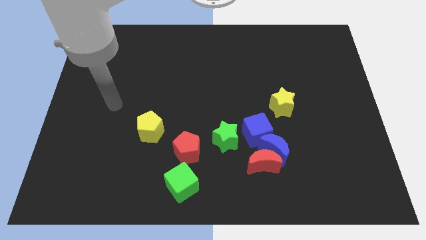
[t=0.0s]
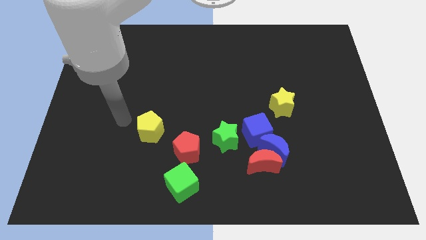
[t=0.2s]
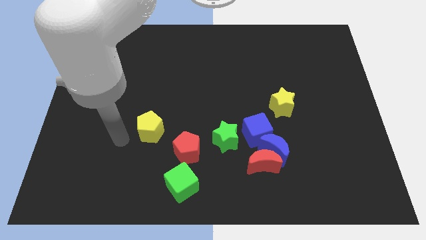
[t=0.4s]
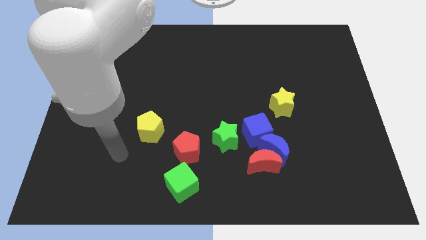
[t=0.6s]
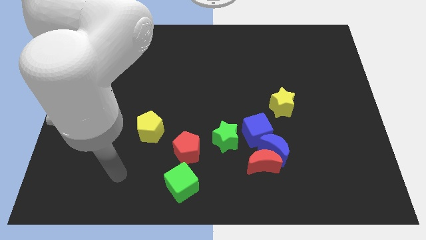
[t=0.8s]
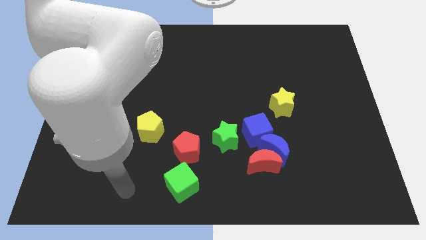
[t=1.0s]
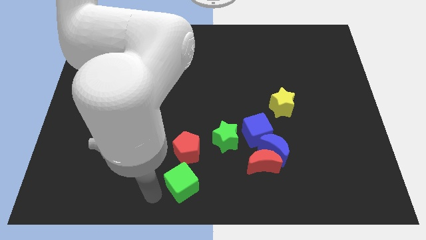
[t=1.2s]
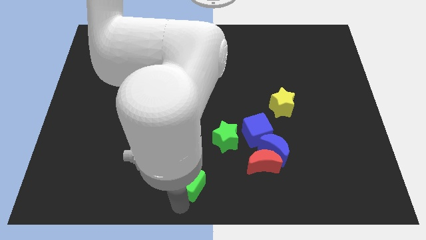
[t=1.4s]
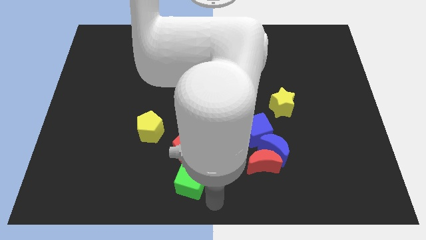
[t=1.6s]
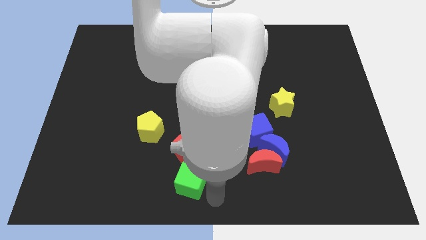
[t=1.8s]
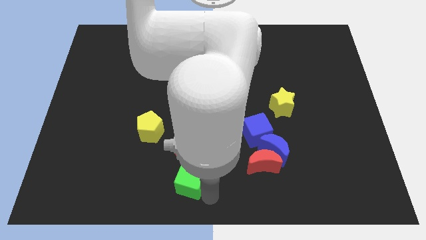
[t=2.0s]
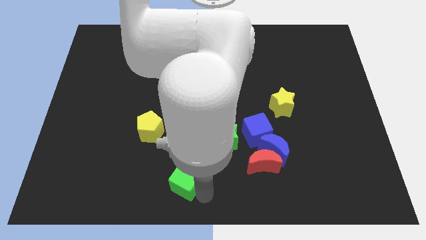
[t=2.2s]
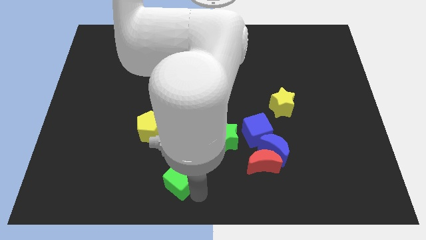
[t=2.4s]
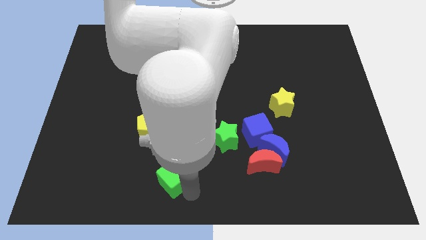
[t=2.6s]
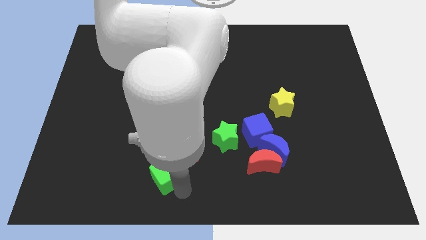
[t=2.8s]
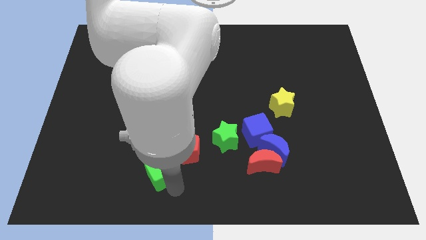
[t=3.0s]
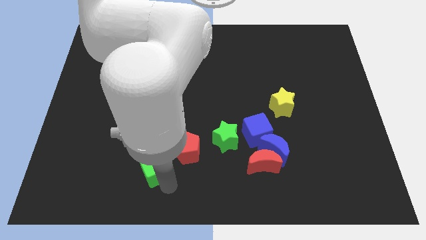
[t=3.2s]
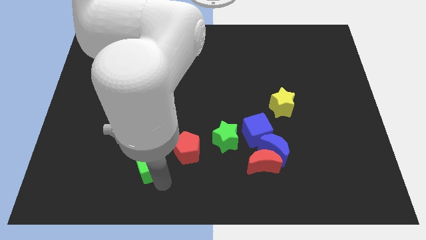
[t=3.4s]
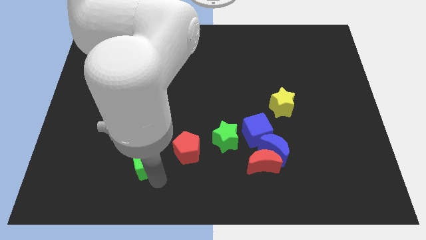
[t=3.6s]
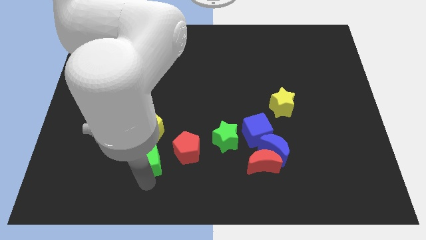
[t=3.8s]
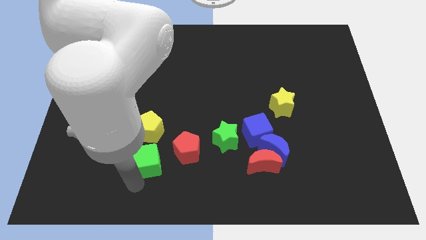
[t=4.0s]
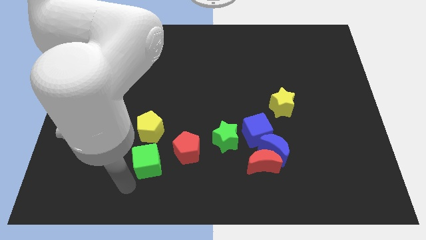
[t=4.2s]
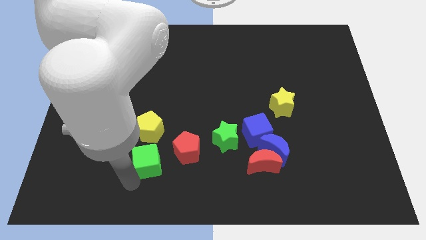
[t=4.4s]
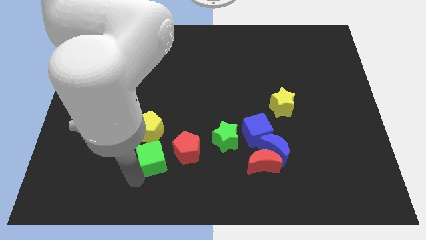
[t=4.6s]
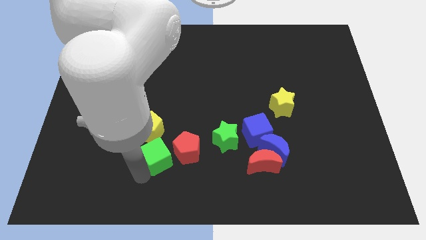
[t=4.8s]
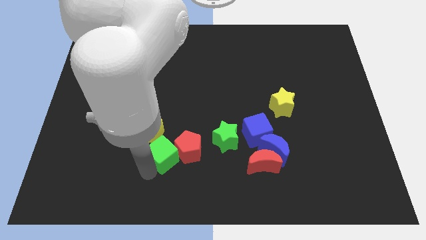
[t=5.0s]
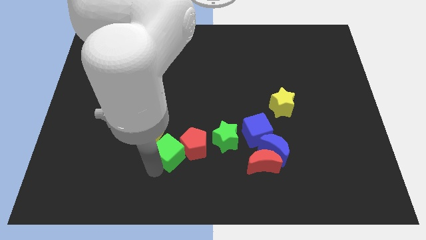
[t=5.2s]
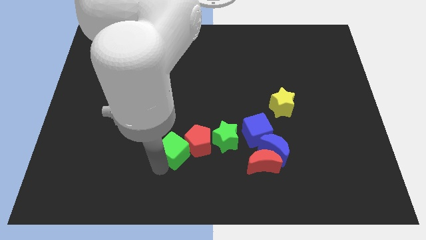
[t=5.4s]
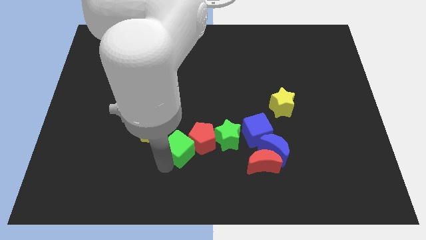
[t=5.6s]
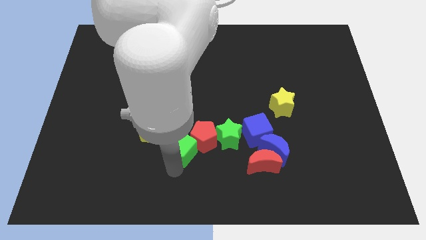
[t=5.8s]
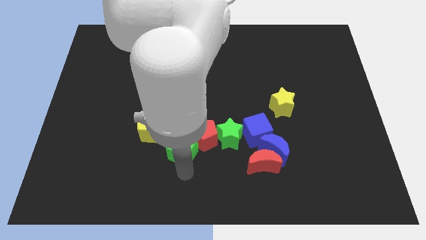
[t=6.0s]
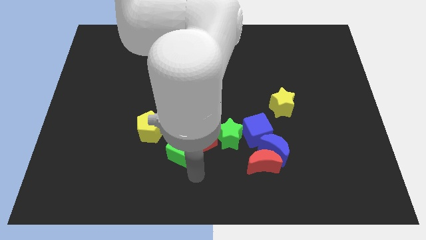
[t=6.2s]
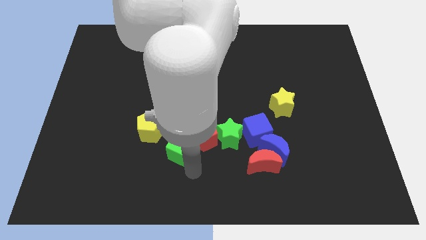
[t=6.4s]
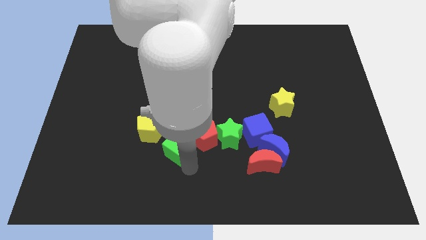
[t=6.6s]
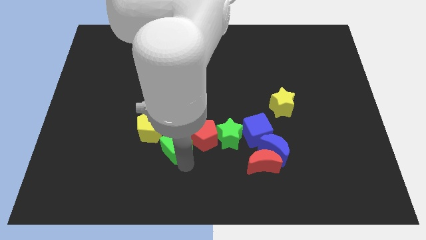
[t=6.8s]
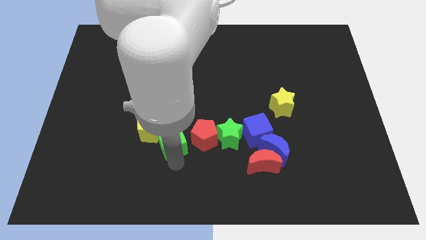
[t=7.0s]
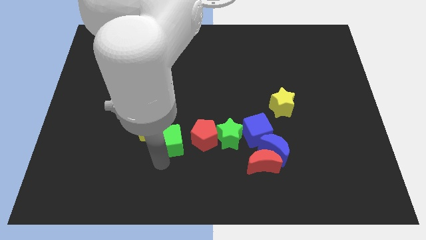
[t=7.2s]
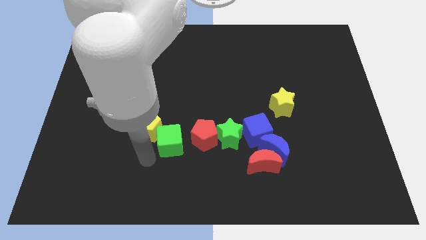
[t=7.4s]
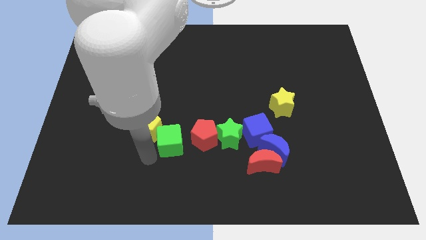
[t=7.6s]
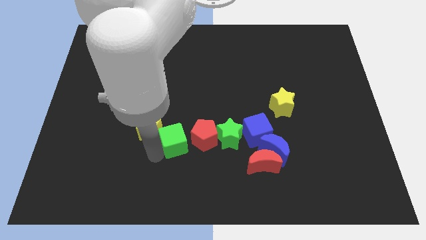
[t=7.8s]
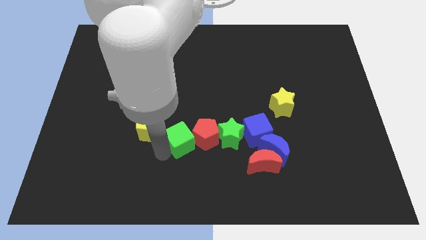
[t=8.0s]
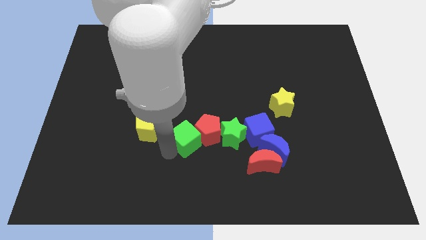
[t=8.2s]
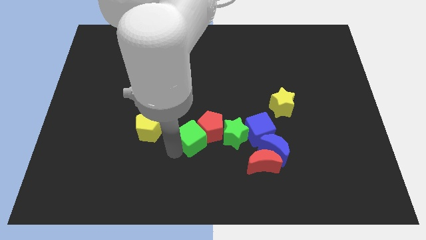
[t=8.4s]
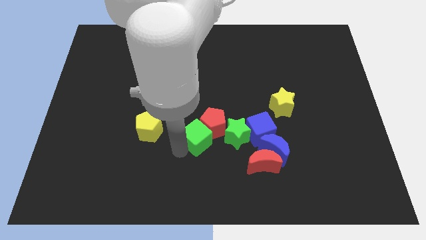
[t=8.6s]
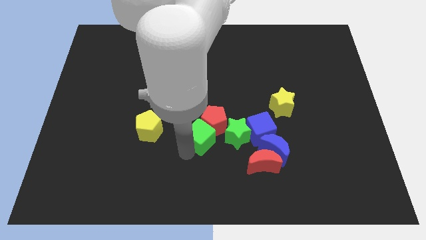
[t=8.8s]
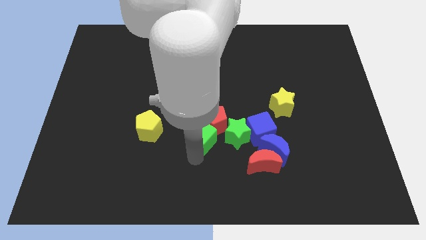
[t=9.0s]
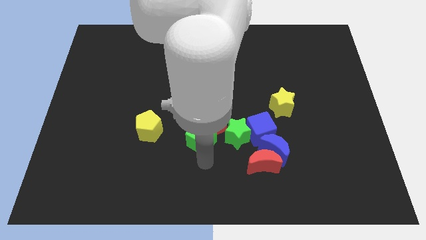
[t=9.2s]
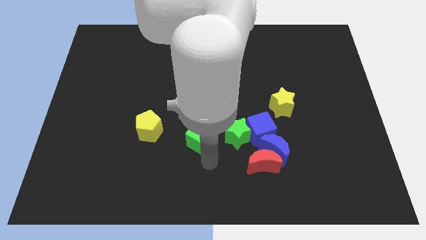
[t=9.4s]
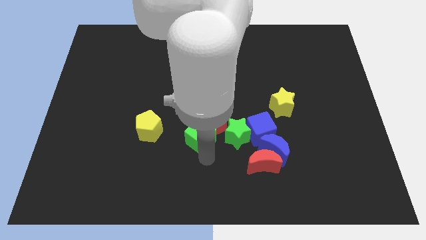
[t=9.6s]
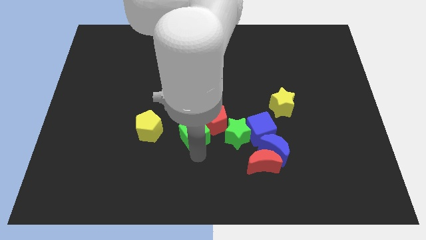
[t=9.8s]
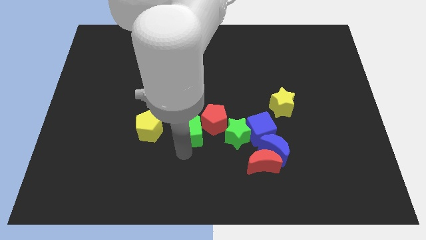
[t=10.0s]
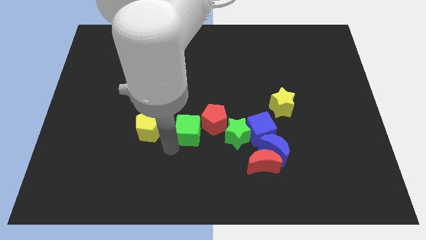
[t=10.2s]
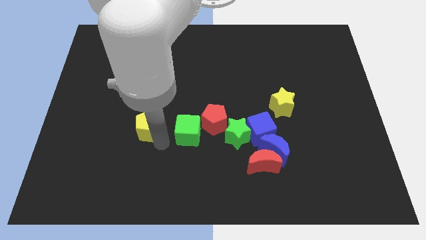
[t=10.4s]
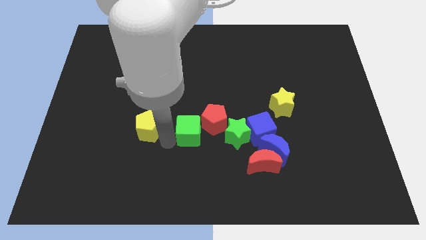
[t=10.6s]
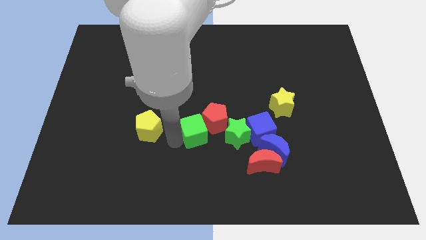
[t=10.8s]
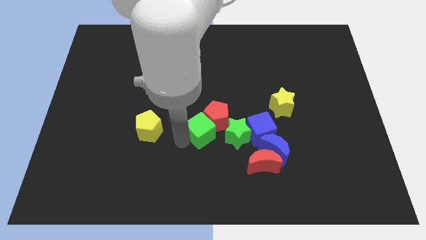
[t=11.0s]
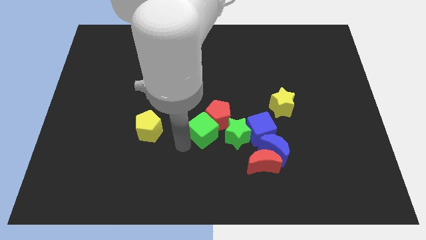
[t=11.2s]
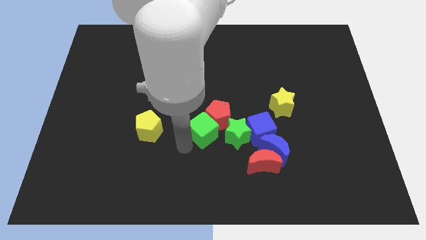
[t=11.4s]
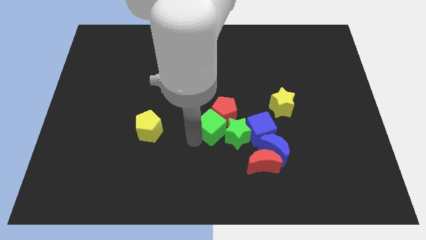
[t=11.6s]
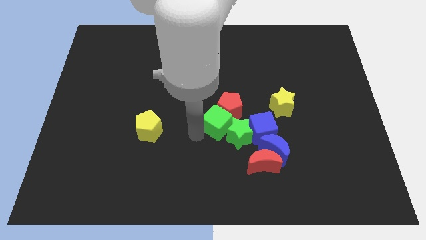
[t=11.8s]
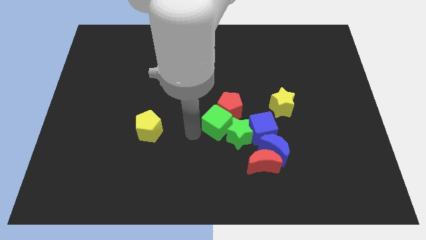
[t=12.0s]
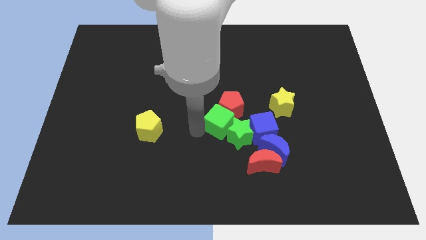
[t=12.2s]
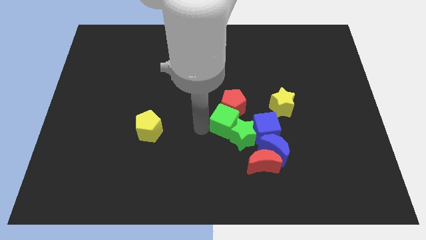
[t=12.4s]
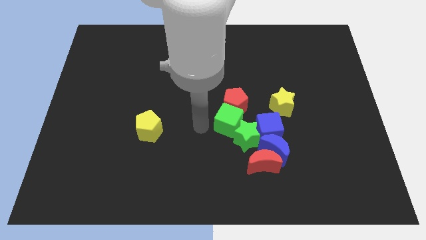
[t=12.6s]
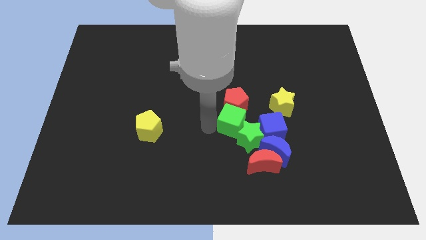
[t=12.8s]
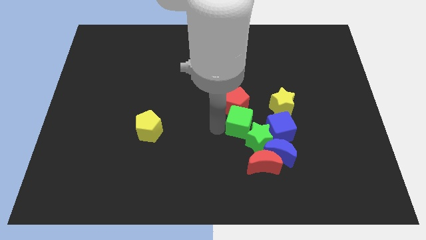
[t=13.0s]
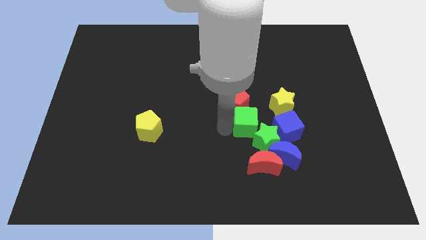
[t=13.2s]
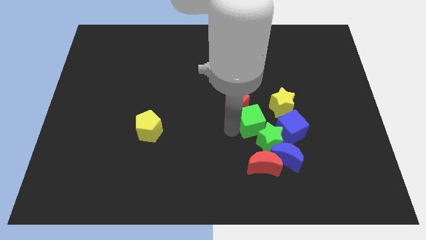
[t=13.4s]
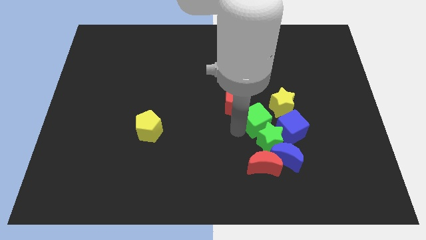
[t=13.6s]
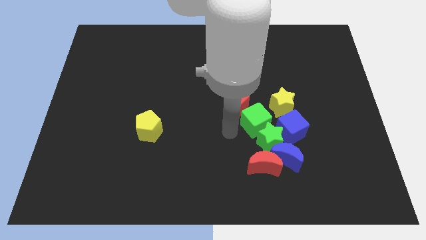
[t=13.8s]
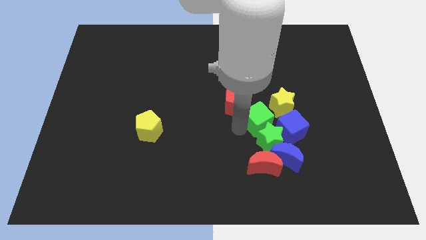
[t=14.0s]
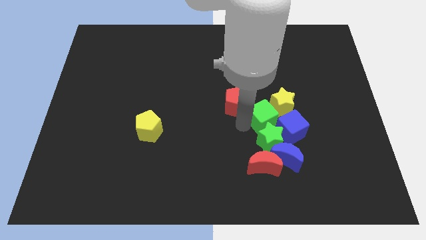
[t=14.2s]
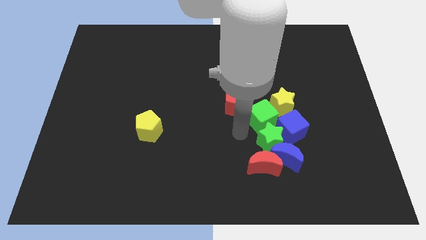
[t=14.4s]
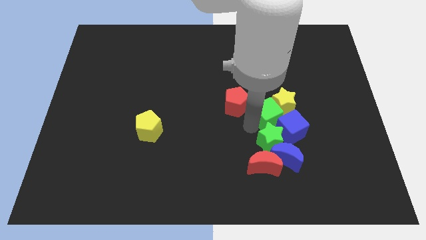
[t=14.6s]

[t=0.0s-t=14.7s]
slide the green cube to the yellow star

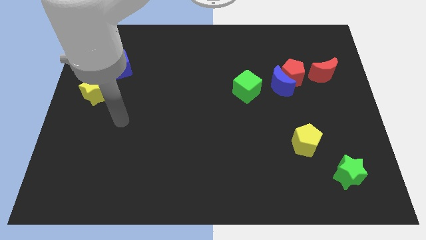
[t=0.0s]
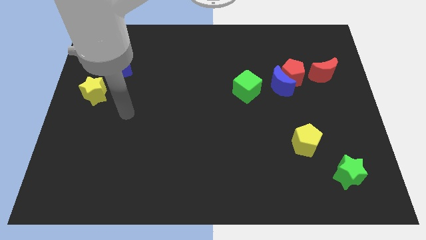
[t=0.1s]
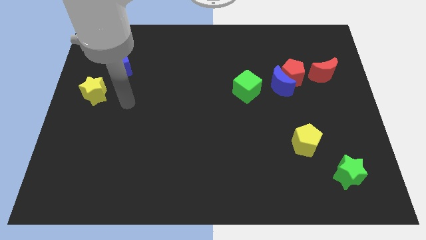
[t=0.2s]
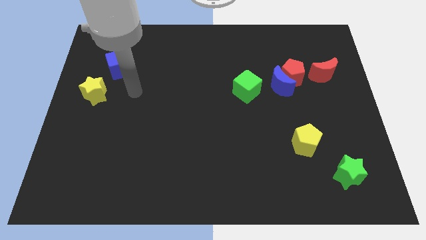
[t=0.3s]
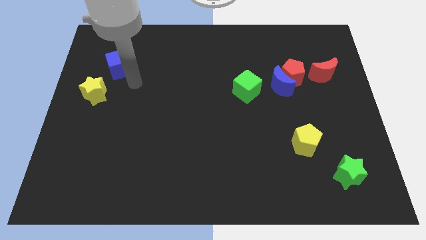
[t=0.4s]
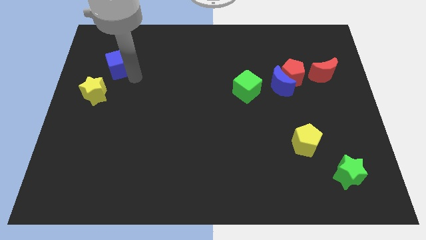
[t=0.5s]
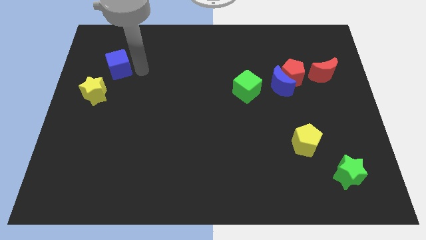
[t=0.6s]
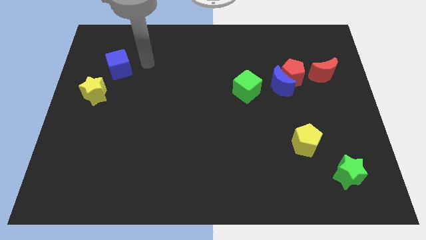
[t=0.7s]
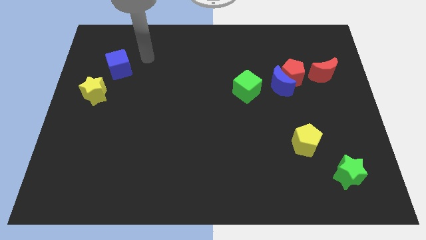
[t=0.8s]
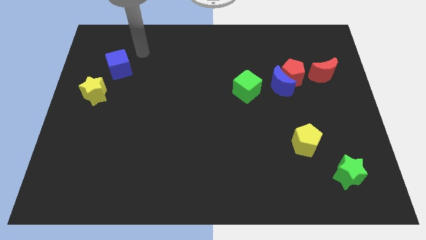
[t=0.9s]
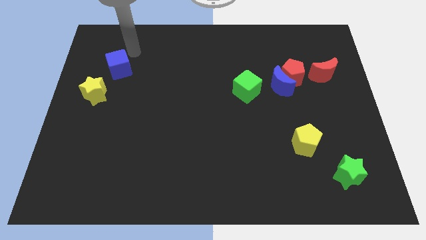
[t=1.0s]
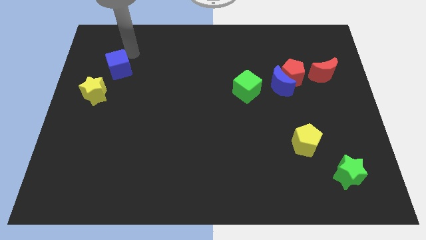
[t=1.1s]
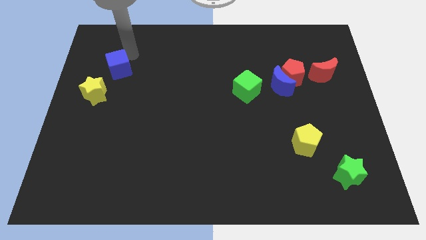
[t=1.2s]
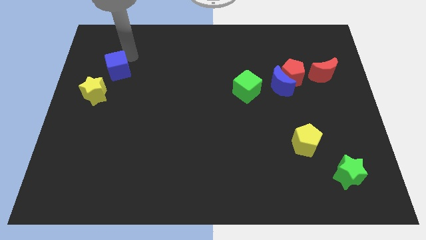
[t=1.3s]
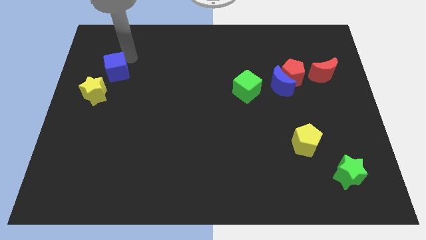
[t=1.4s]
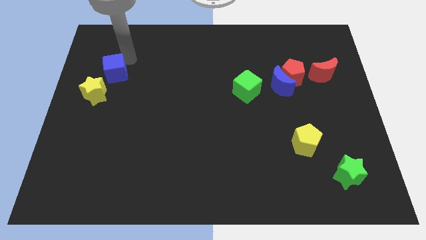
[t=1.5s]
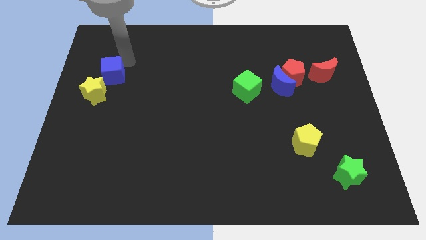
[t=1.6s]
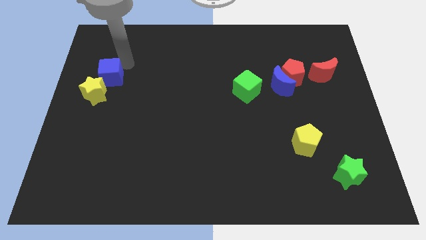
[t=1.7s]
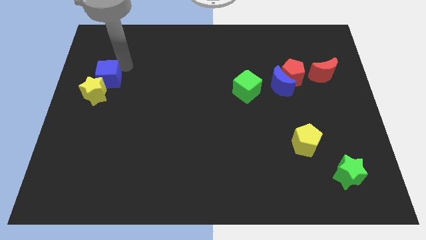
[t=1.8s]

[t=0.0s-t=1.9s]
put the blue cube close to the yellow star
